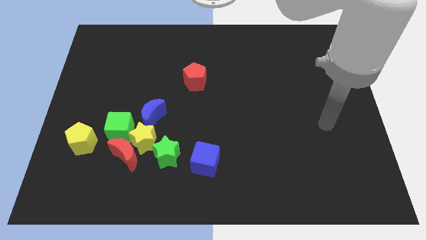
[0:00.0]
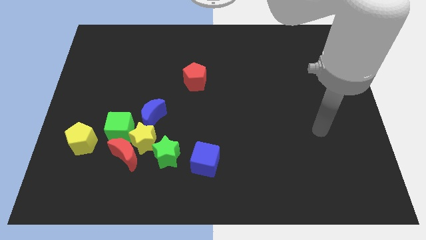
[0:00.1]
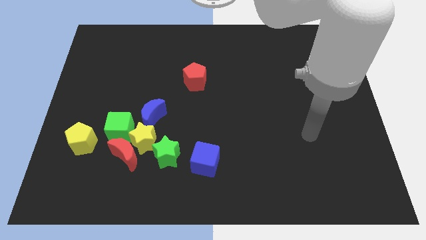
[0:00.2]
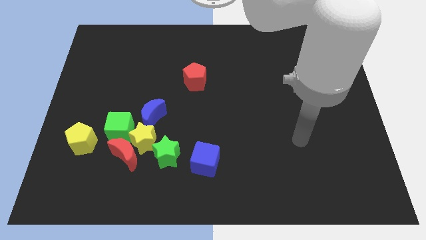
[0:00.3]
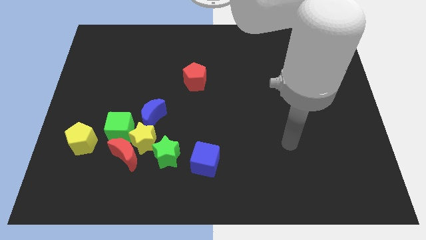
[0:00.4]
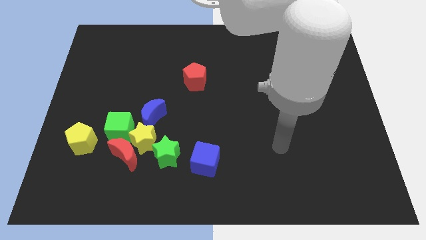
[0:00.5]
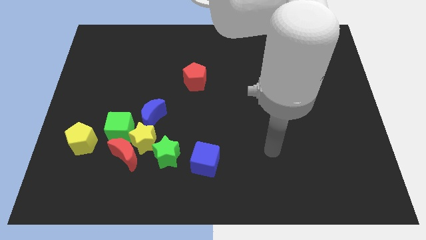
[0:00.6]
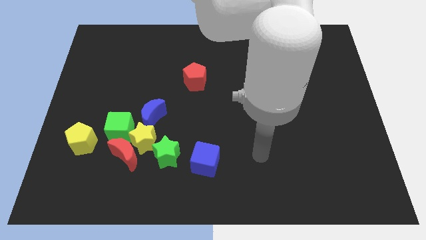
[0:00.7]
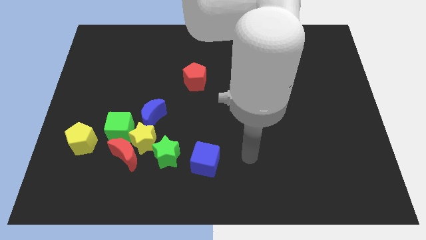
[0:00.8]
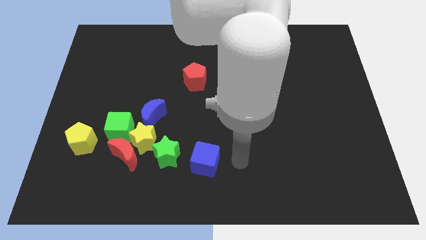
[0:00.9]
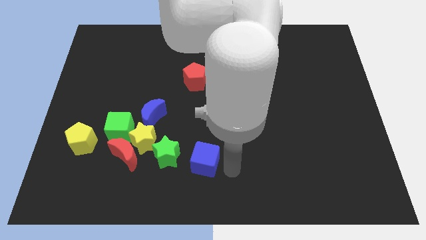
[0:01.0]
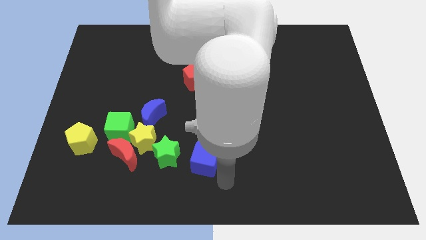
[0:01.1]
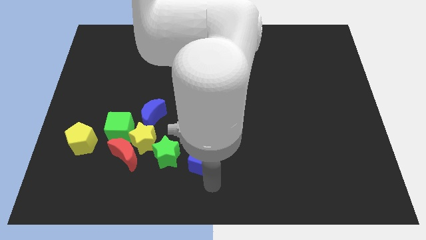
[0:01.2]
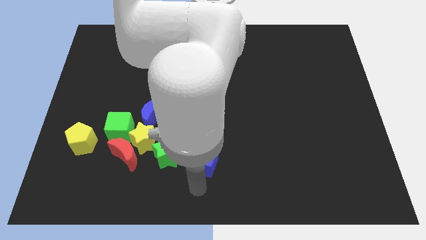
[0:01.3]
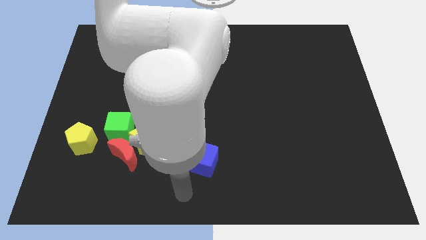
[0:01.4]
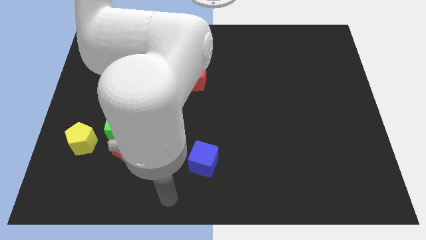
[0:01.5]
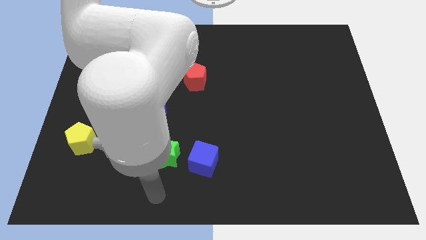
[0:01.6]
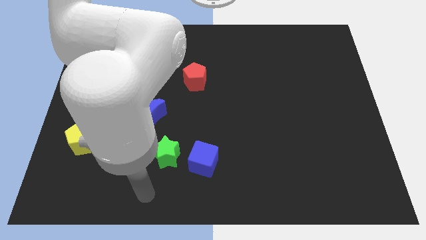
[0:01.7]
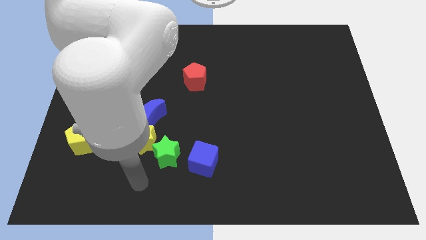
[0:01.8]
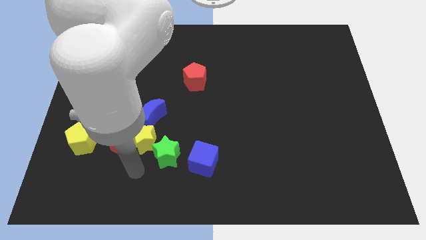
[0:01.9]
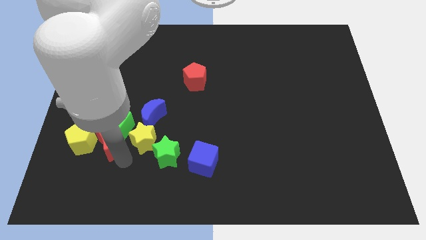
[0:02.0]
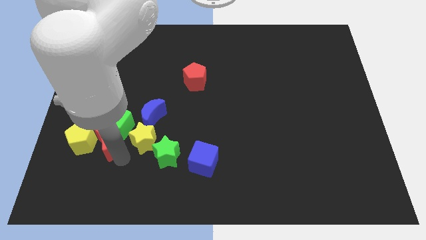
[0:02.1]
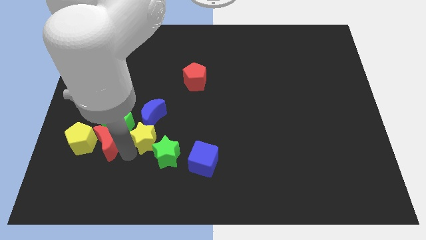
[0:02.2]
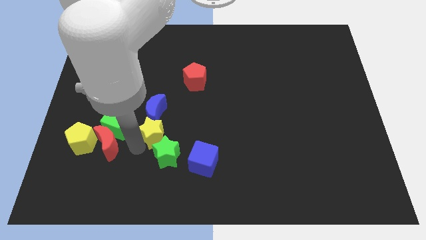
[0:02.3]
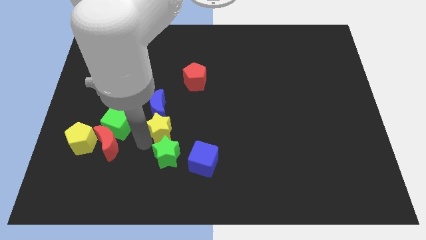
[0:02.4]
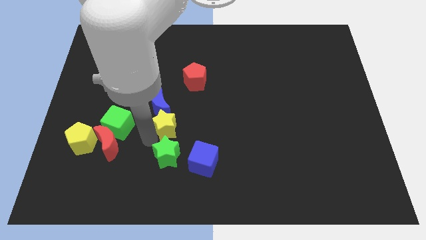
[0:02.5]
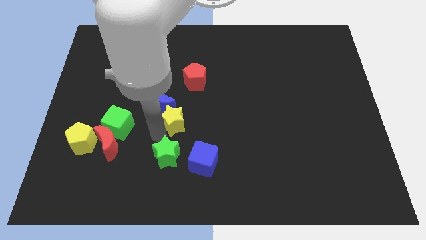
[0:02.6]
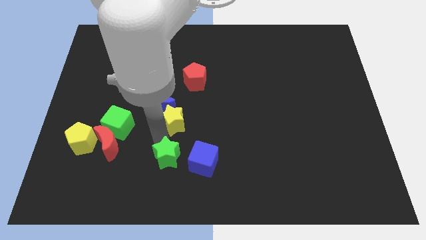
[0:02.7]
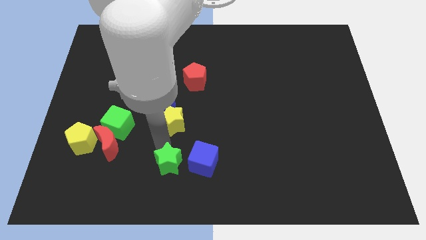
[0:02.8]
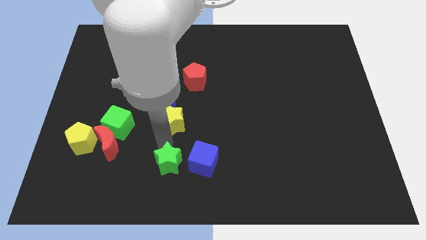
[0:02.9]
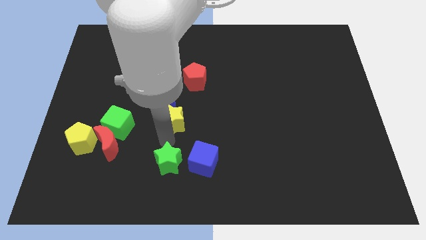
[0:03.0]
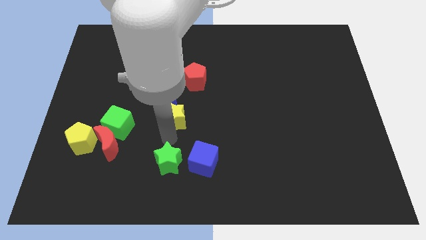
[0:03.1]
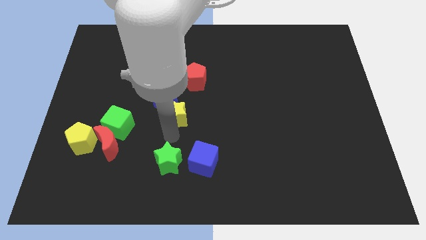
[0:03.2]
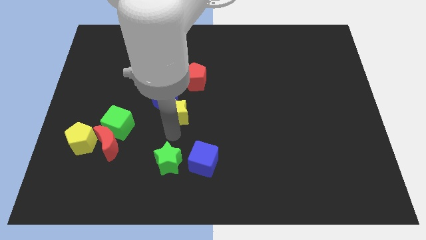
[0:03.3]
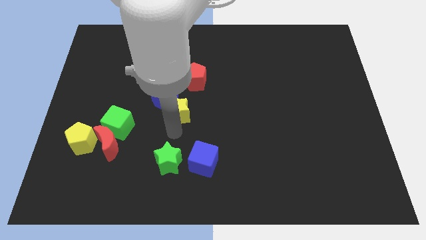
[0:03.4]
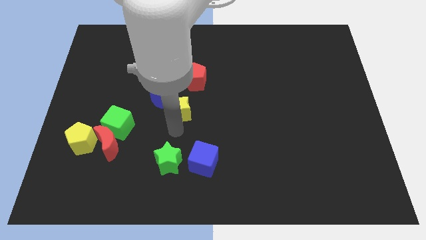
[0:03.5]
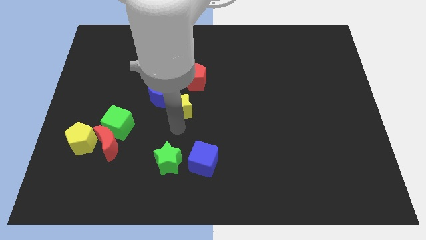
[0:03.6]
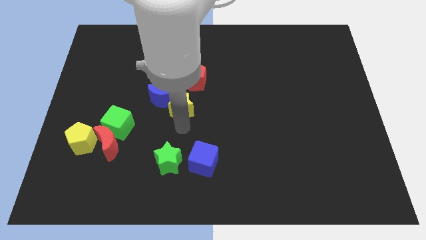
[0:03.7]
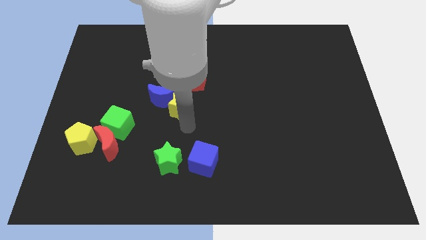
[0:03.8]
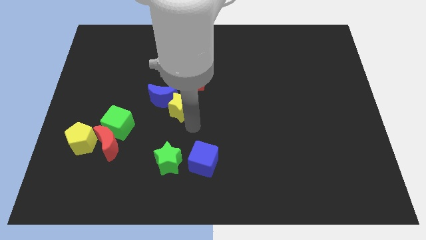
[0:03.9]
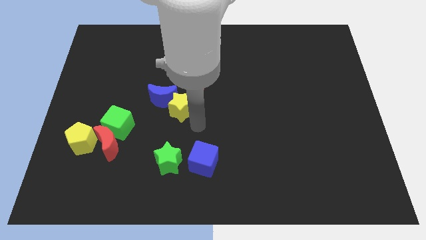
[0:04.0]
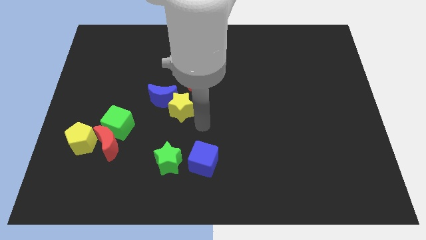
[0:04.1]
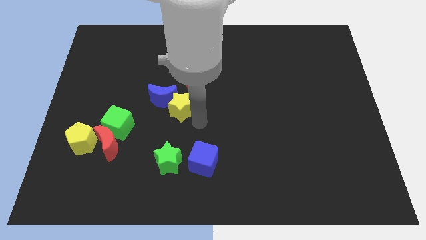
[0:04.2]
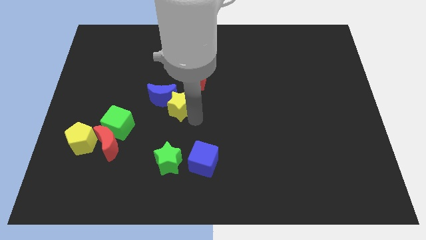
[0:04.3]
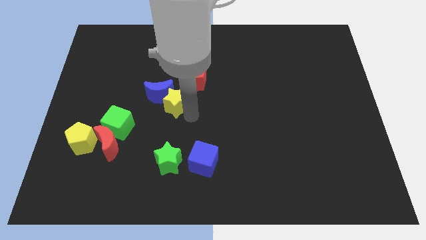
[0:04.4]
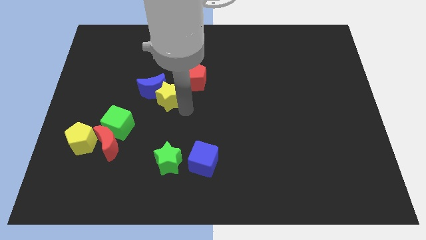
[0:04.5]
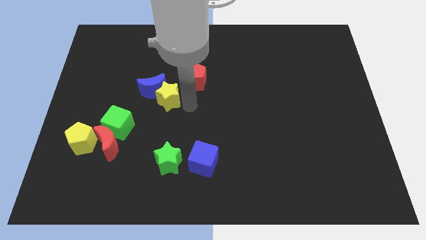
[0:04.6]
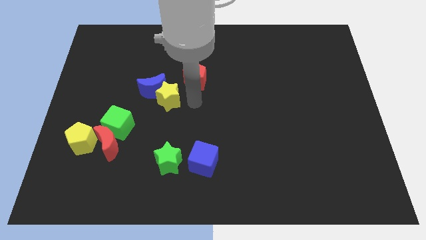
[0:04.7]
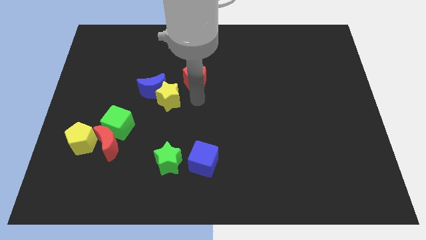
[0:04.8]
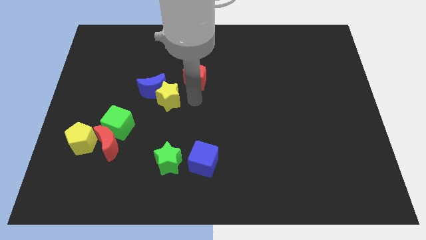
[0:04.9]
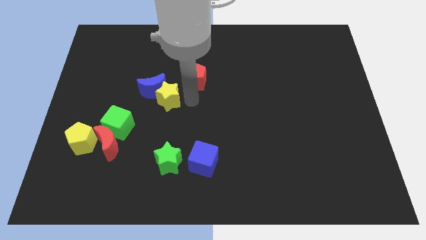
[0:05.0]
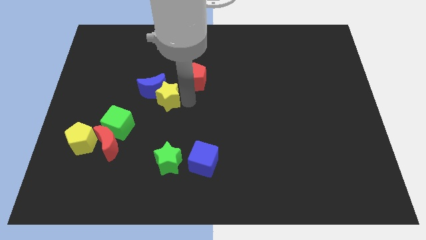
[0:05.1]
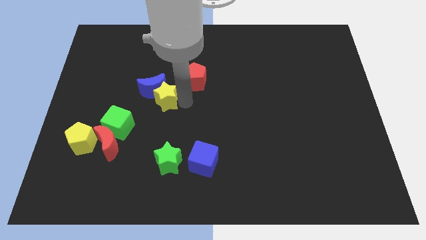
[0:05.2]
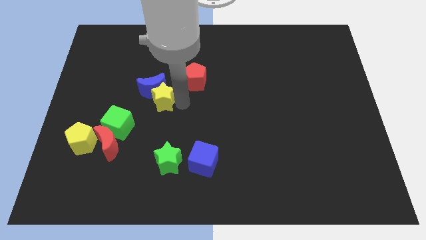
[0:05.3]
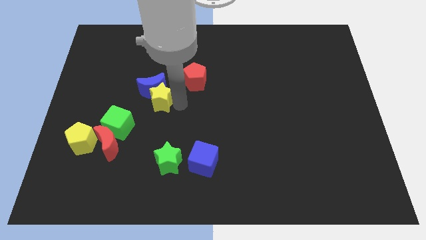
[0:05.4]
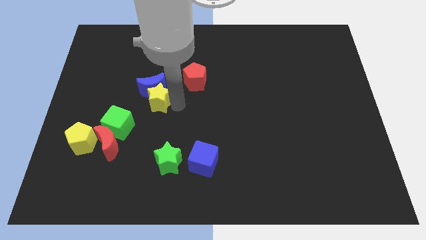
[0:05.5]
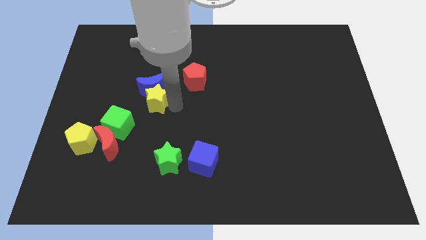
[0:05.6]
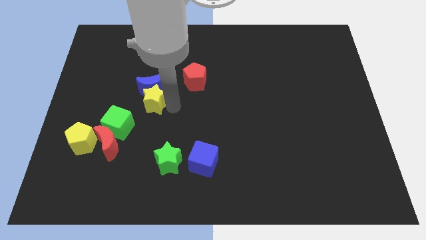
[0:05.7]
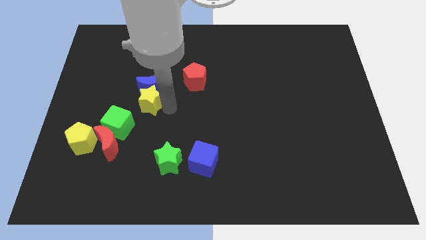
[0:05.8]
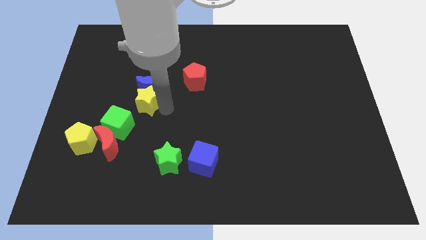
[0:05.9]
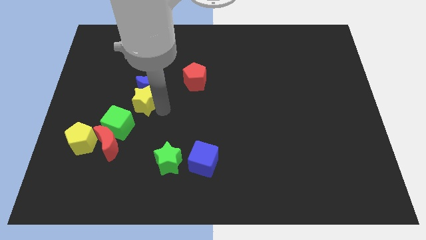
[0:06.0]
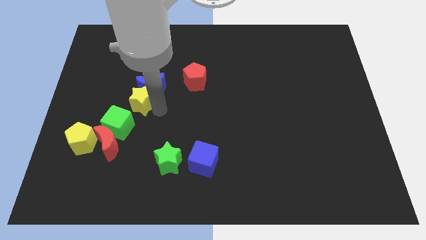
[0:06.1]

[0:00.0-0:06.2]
slightly push the yellow star diagonally upwards and left

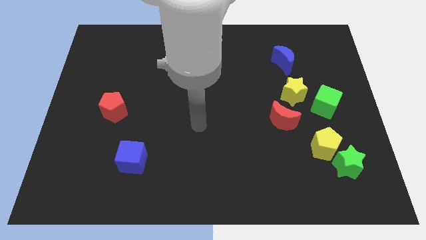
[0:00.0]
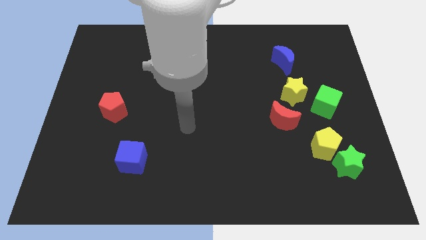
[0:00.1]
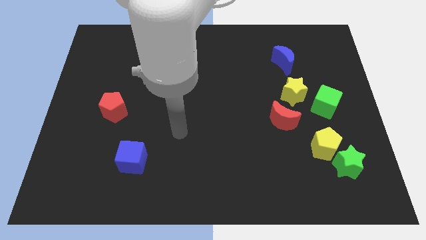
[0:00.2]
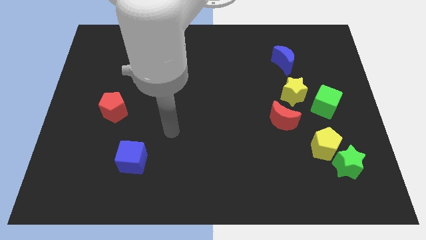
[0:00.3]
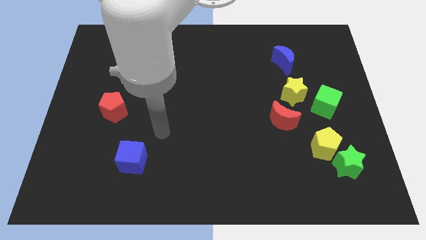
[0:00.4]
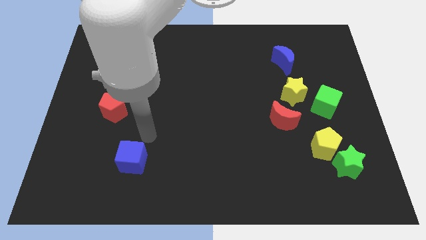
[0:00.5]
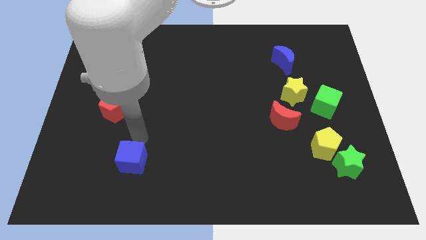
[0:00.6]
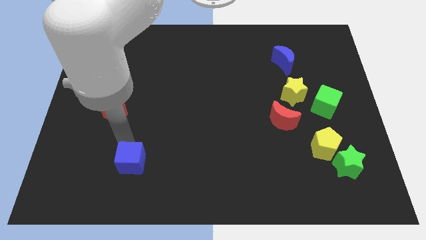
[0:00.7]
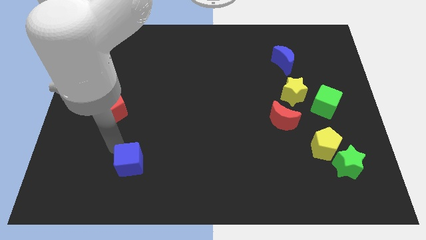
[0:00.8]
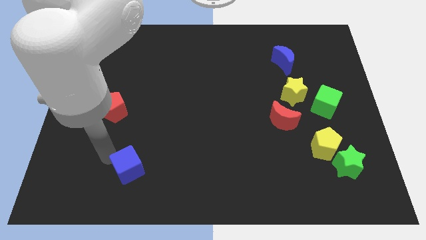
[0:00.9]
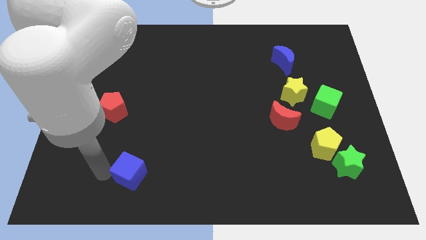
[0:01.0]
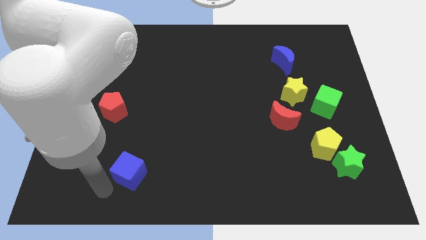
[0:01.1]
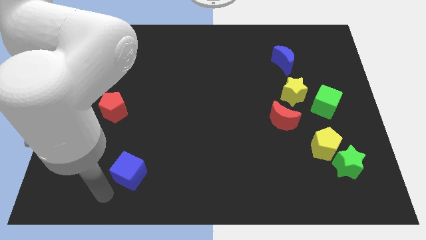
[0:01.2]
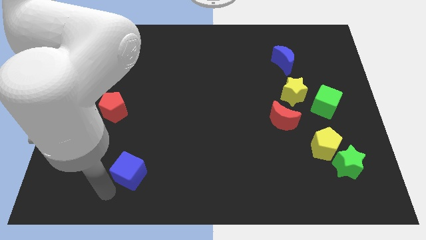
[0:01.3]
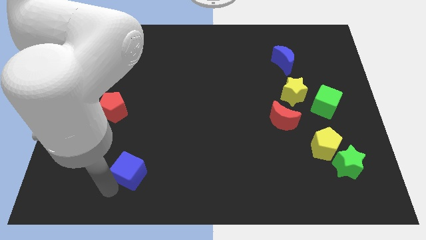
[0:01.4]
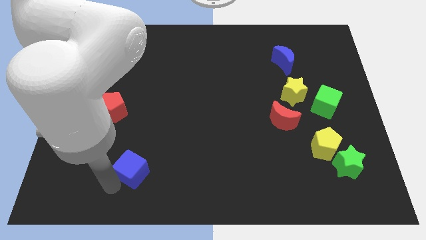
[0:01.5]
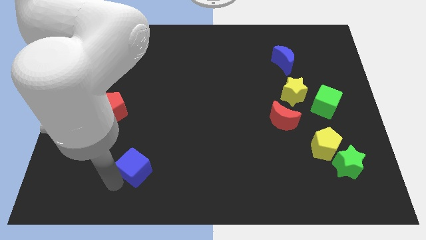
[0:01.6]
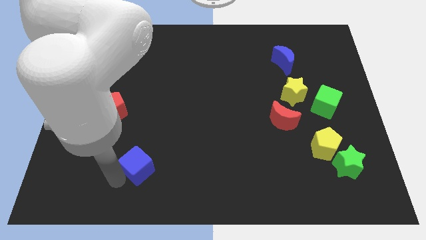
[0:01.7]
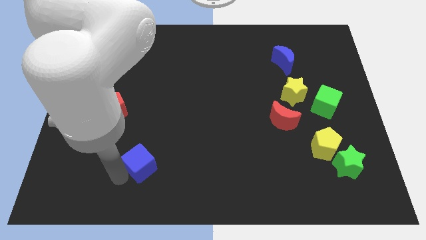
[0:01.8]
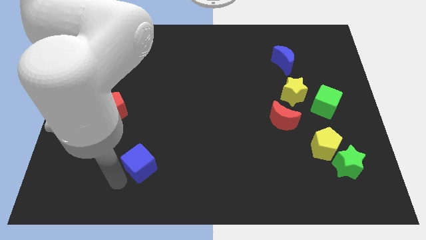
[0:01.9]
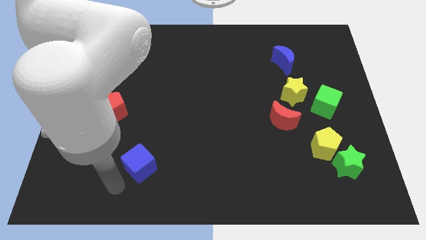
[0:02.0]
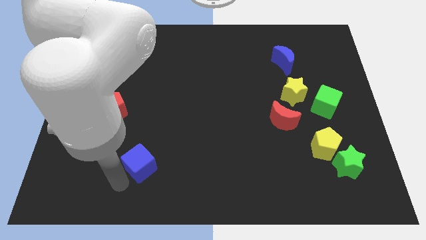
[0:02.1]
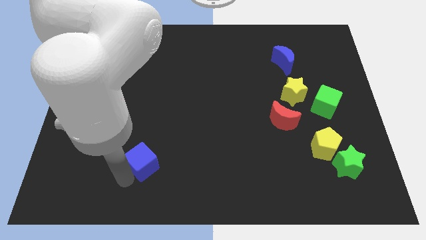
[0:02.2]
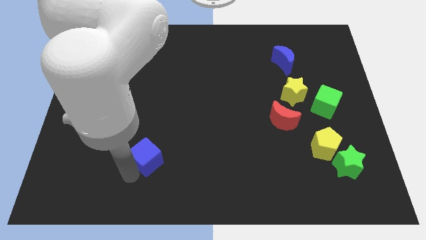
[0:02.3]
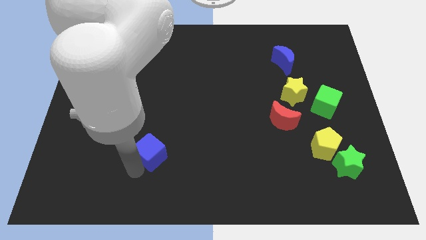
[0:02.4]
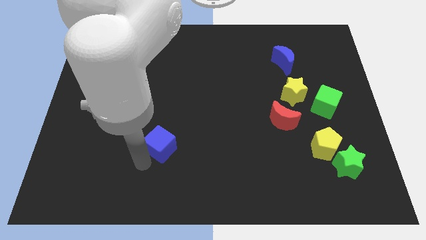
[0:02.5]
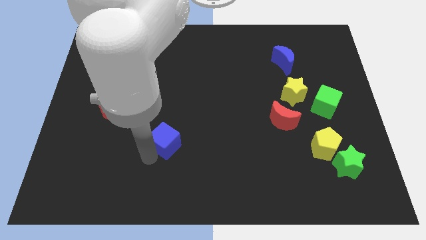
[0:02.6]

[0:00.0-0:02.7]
slightly slide the blue cube upwards and then right
